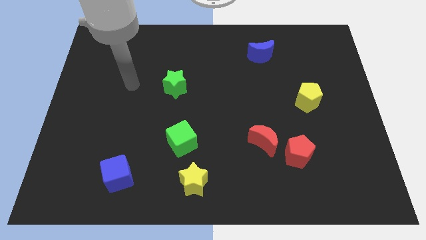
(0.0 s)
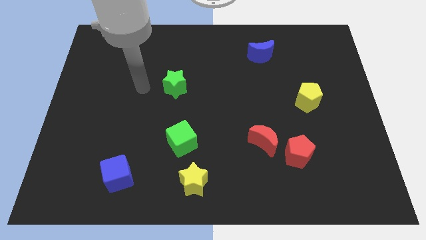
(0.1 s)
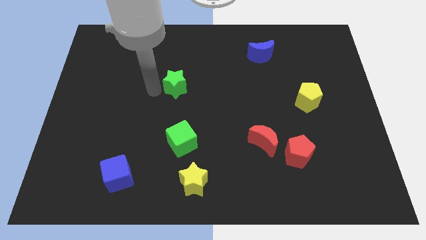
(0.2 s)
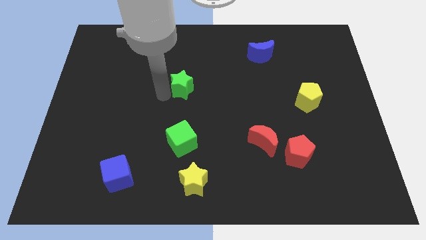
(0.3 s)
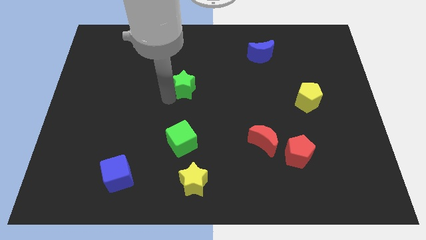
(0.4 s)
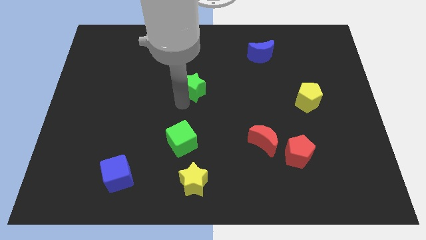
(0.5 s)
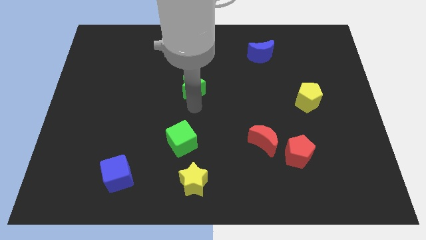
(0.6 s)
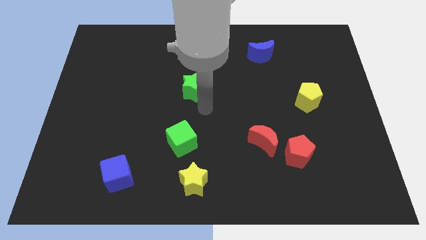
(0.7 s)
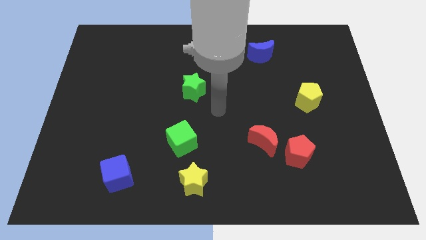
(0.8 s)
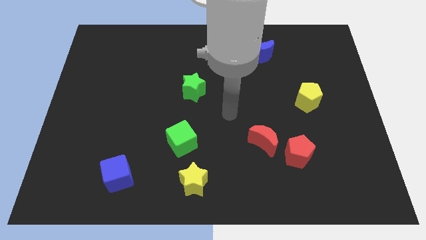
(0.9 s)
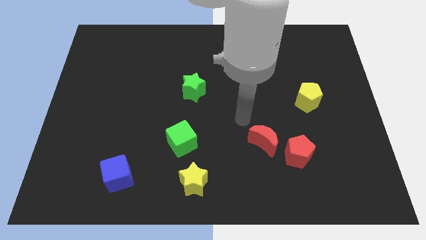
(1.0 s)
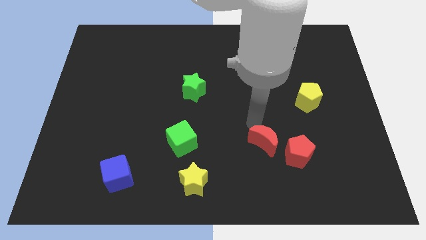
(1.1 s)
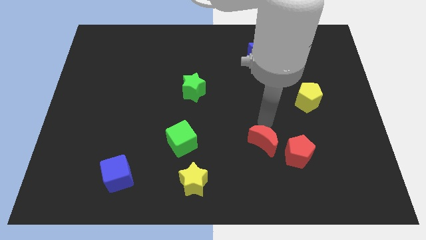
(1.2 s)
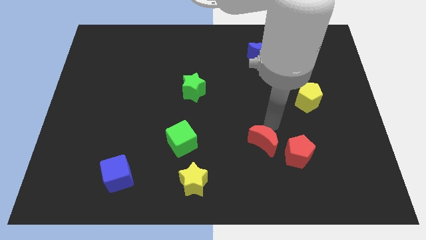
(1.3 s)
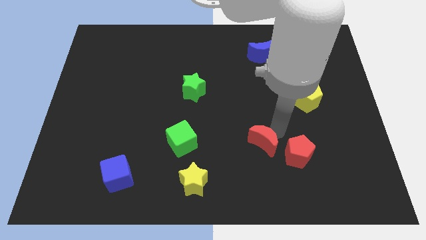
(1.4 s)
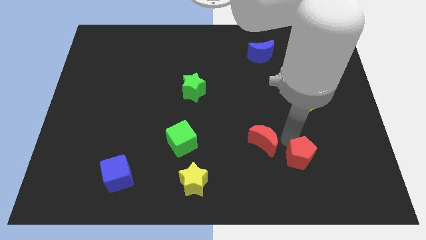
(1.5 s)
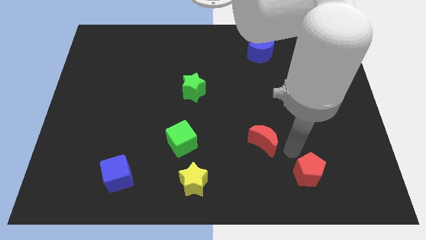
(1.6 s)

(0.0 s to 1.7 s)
move the red moon away from the red pentagon

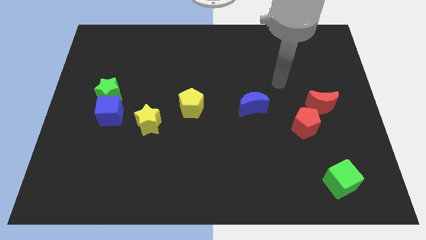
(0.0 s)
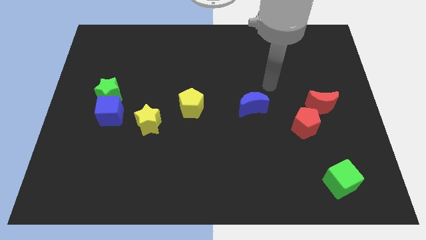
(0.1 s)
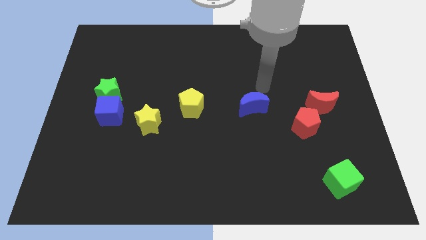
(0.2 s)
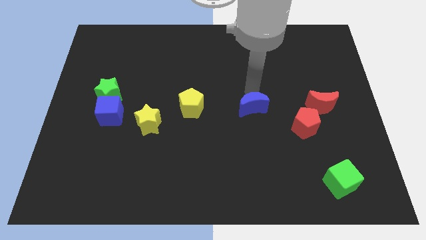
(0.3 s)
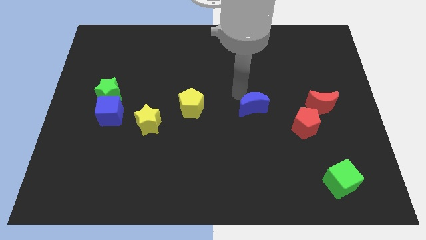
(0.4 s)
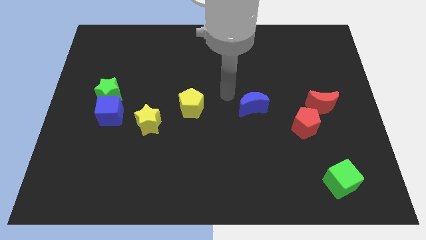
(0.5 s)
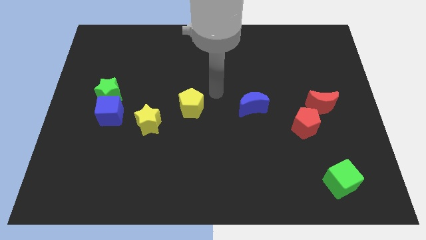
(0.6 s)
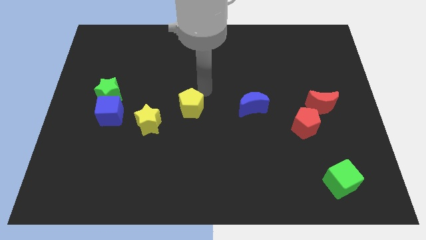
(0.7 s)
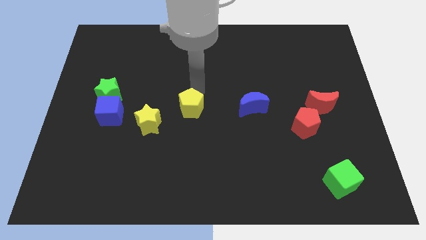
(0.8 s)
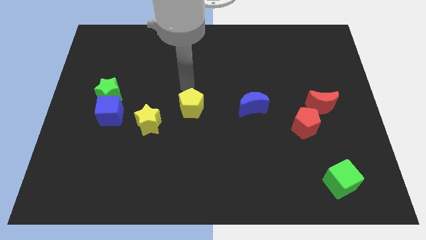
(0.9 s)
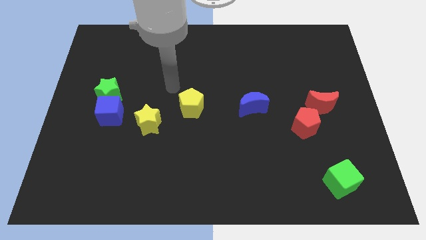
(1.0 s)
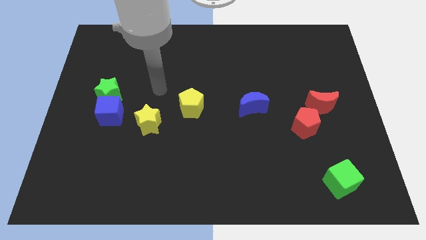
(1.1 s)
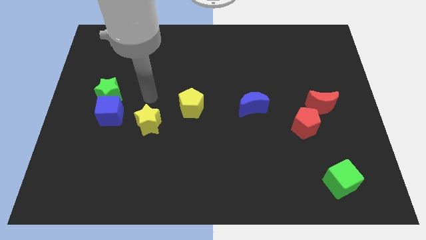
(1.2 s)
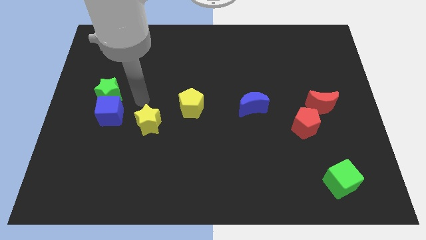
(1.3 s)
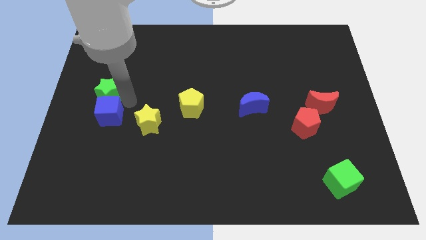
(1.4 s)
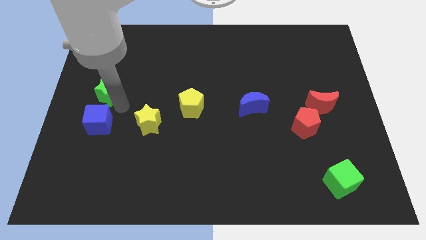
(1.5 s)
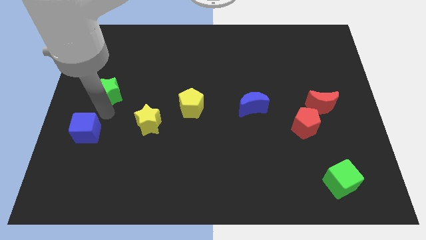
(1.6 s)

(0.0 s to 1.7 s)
pull the green star apart from the blue cube

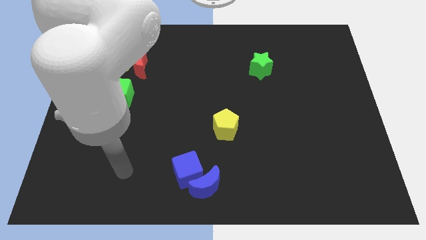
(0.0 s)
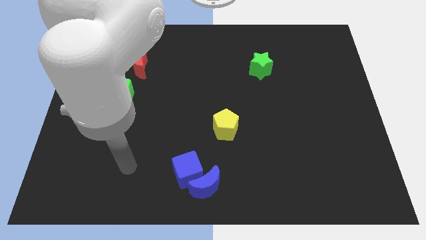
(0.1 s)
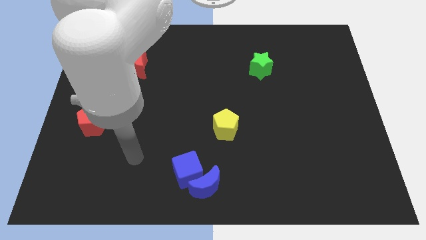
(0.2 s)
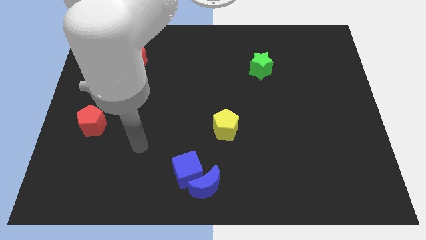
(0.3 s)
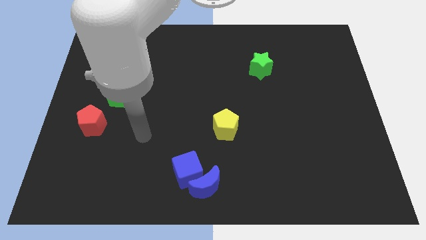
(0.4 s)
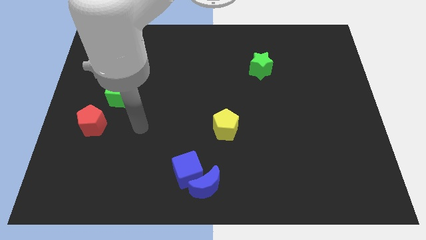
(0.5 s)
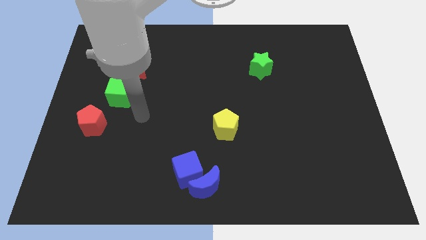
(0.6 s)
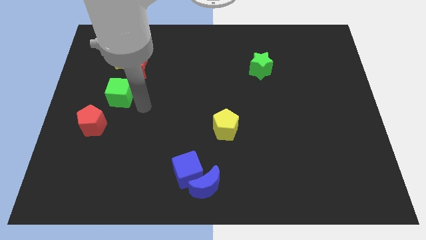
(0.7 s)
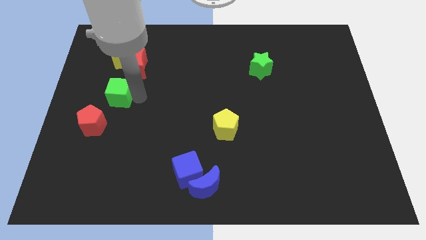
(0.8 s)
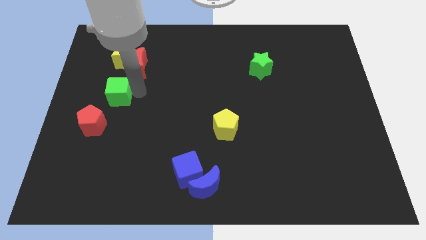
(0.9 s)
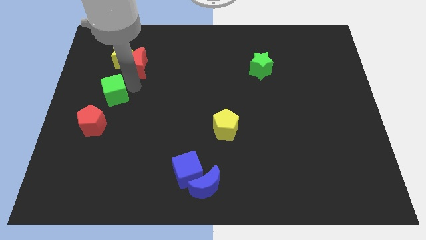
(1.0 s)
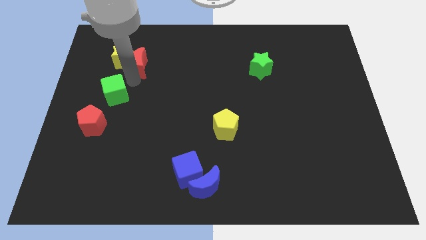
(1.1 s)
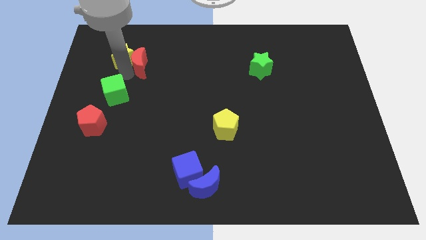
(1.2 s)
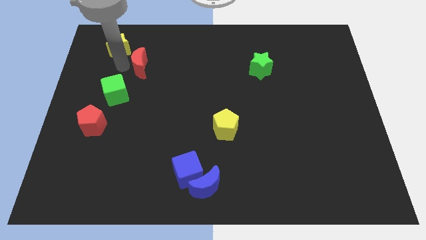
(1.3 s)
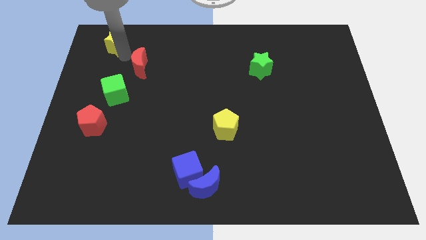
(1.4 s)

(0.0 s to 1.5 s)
move the red moon away from the yellow star

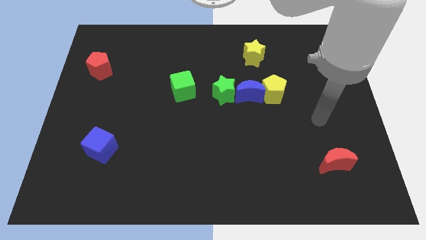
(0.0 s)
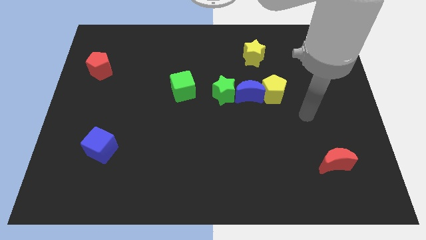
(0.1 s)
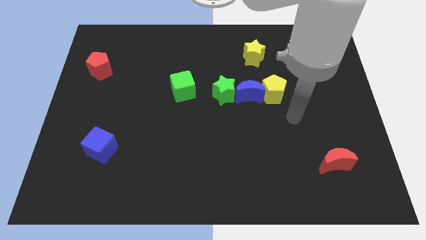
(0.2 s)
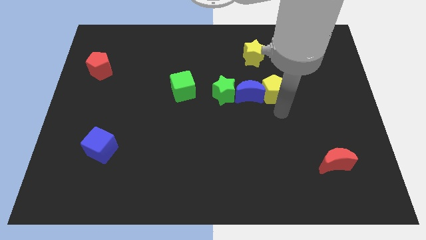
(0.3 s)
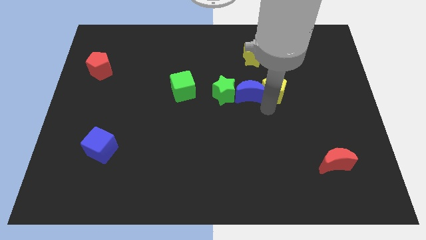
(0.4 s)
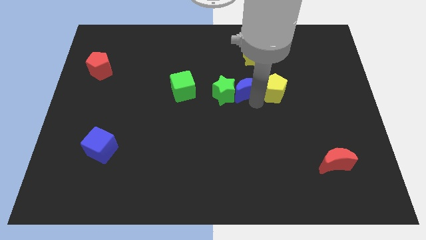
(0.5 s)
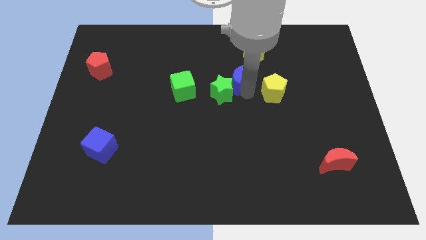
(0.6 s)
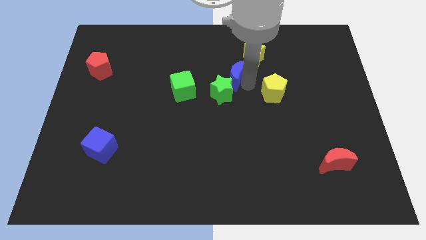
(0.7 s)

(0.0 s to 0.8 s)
pull the yellow pentagon apart from the blue moon

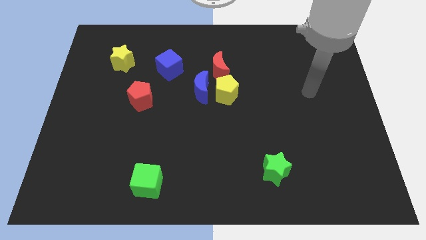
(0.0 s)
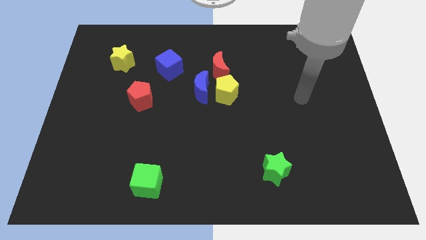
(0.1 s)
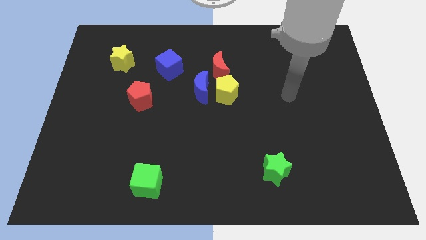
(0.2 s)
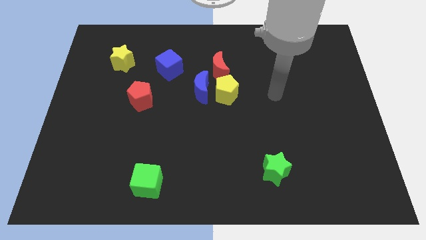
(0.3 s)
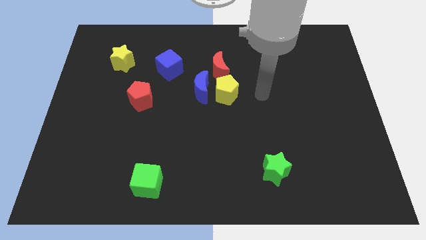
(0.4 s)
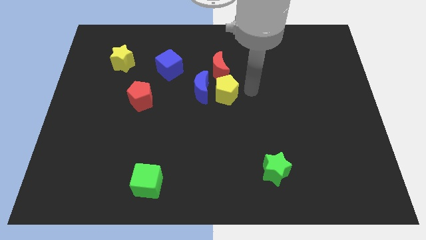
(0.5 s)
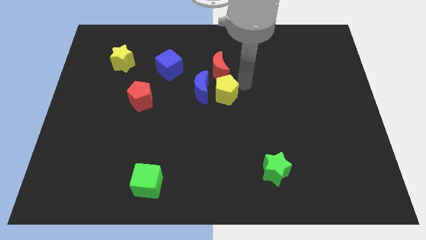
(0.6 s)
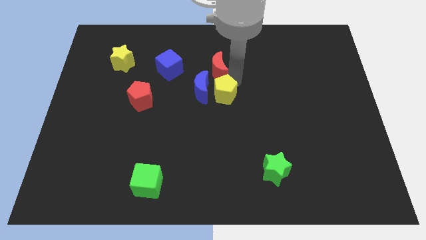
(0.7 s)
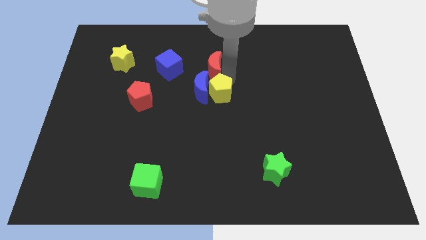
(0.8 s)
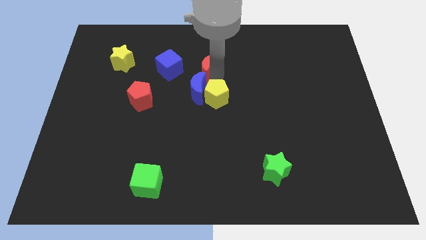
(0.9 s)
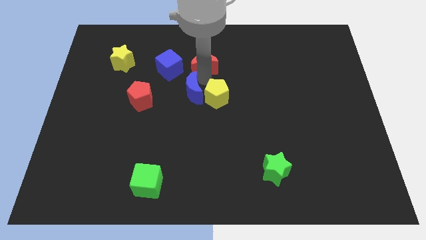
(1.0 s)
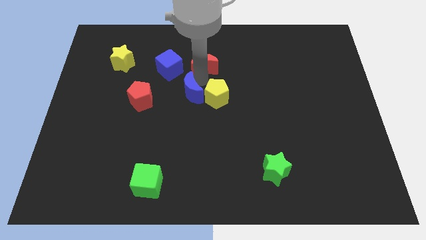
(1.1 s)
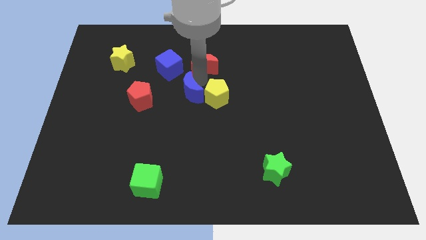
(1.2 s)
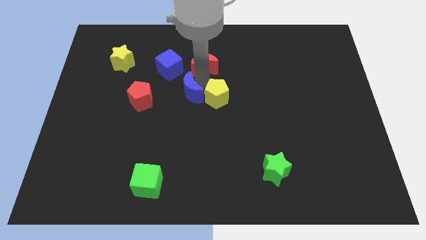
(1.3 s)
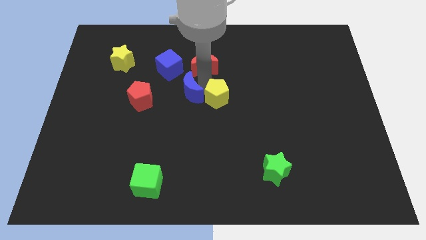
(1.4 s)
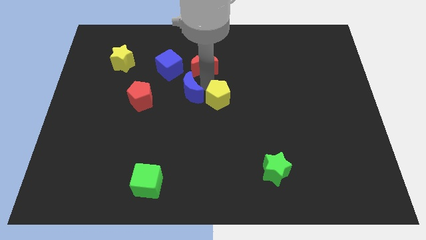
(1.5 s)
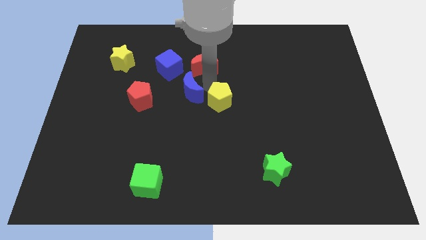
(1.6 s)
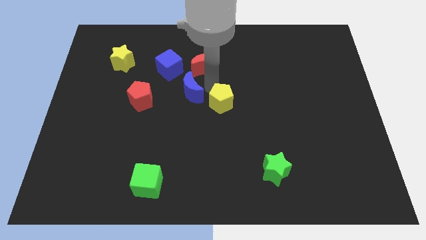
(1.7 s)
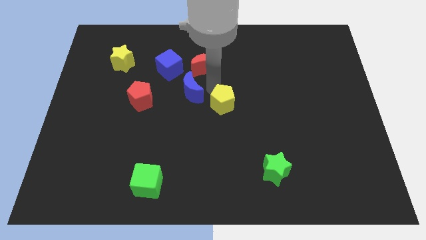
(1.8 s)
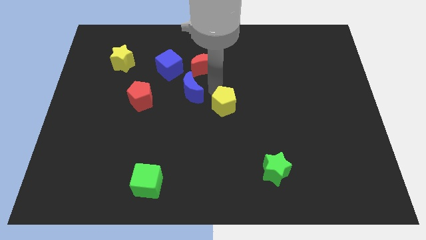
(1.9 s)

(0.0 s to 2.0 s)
separate the yellow pentagon from the blue moon and red moon

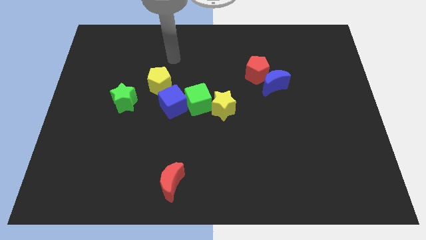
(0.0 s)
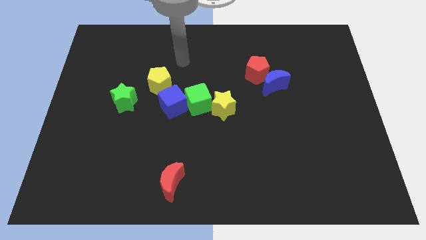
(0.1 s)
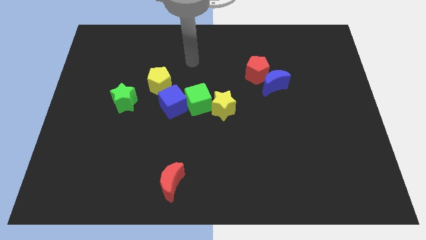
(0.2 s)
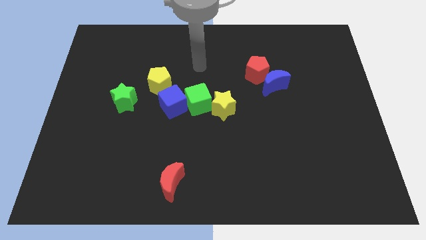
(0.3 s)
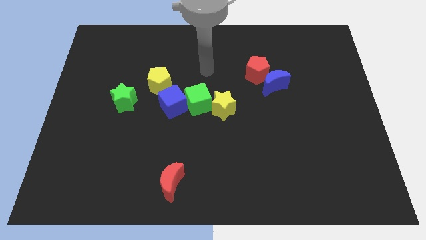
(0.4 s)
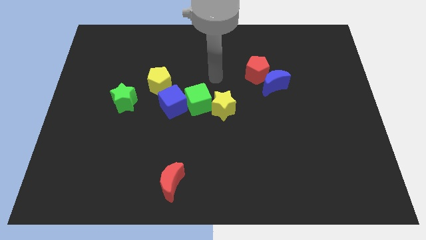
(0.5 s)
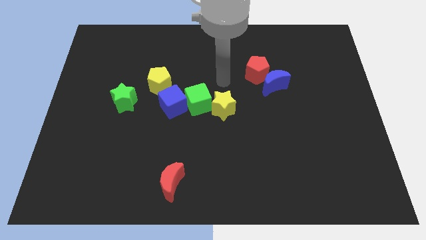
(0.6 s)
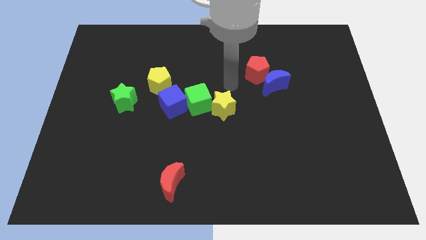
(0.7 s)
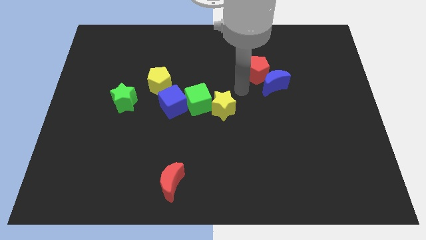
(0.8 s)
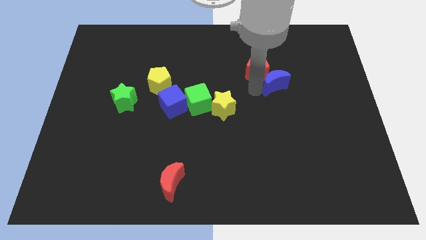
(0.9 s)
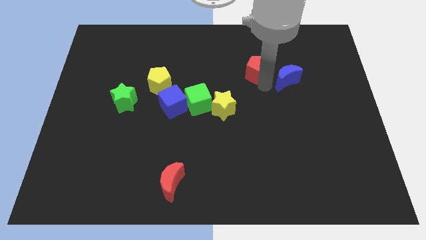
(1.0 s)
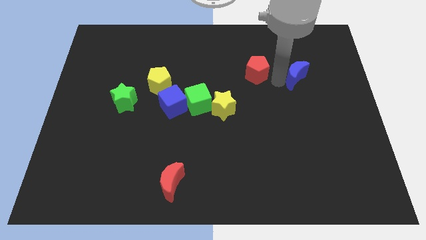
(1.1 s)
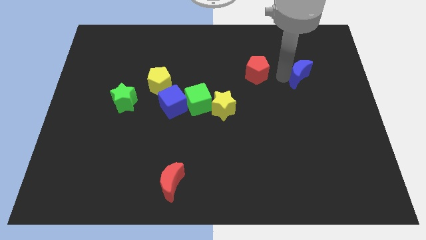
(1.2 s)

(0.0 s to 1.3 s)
pull the red pentagon apart from the blue moon

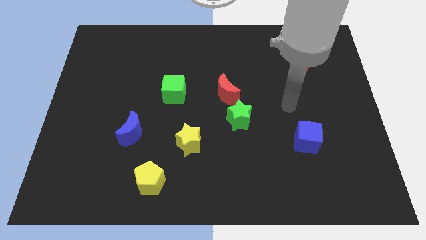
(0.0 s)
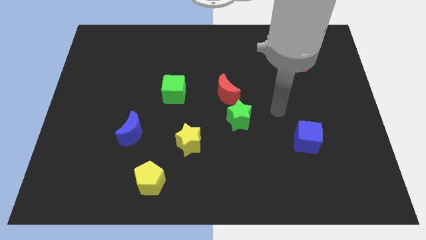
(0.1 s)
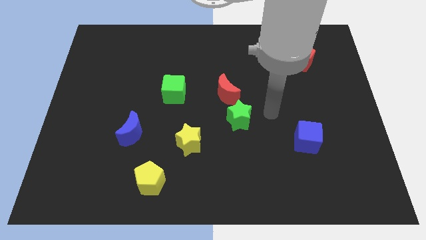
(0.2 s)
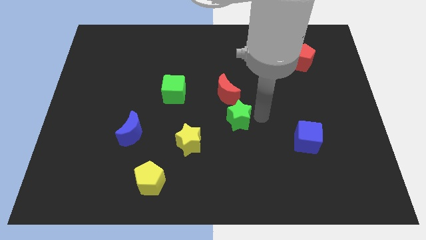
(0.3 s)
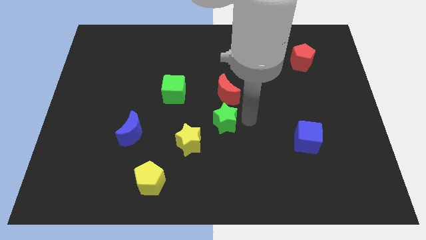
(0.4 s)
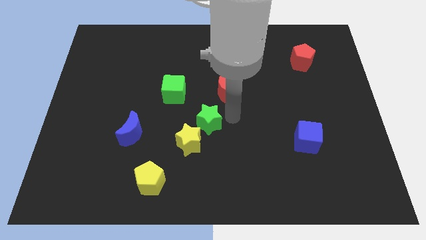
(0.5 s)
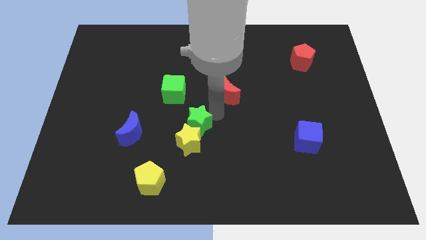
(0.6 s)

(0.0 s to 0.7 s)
pull the red moon apart from the green star
